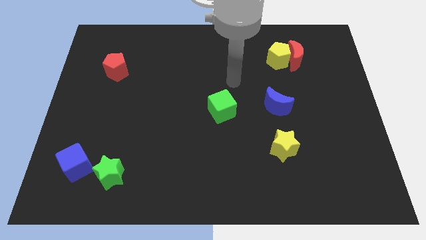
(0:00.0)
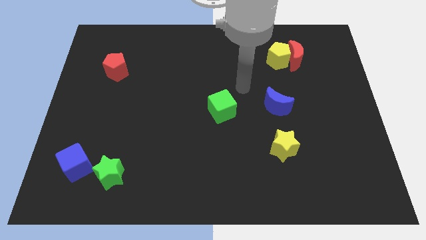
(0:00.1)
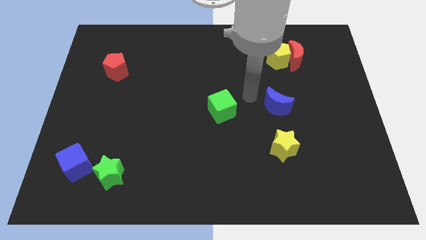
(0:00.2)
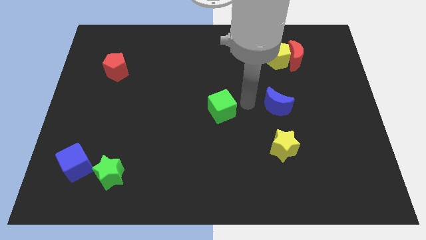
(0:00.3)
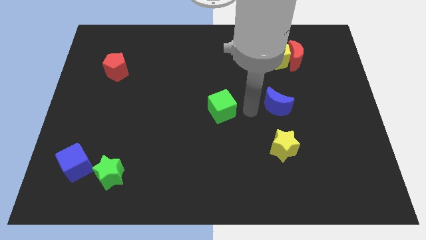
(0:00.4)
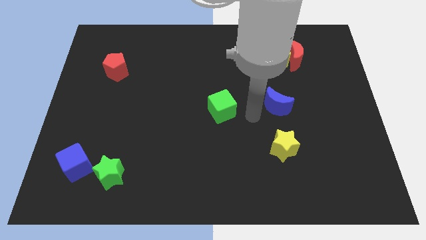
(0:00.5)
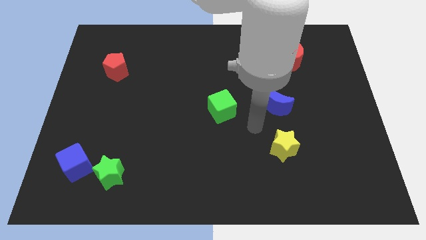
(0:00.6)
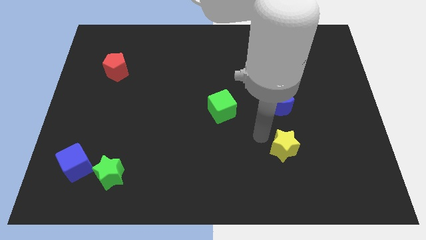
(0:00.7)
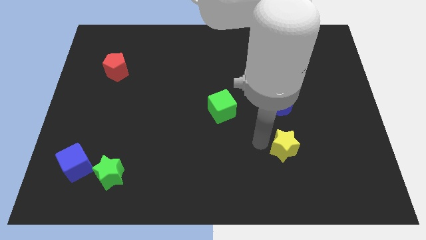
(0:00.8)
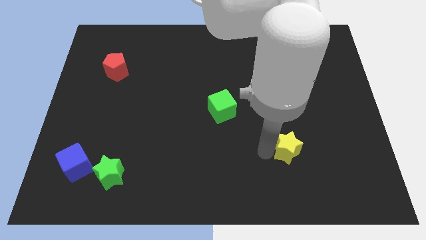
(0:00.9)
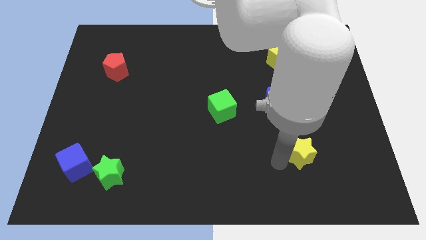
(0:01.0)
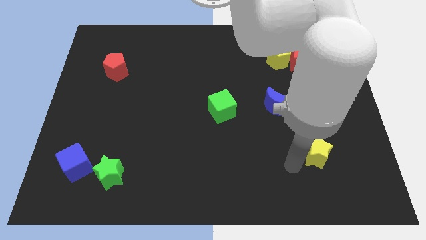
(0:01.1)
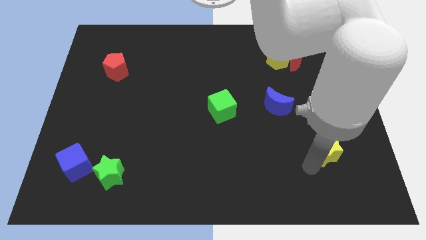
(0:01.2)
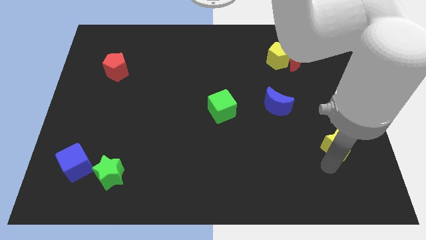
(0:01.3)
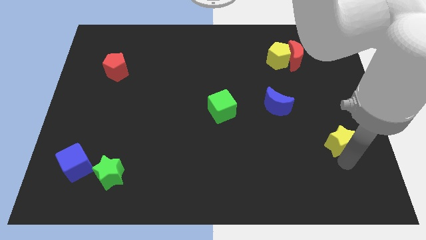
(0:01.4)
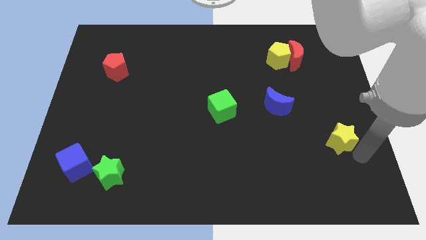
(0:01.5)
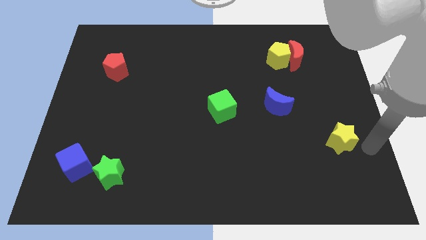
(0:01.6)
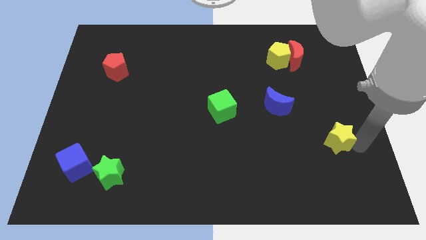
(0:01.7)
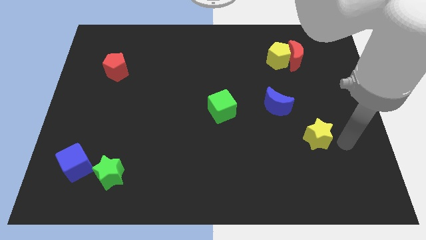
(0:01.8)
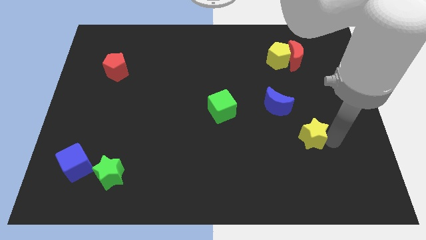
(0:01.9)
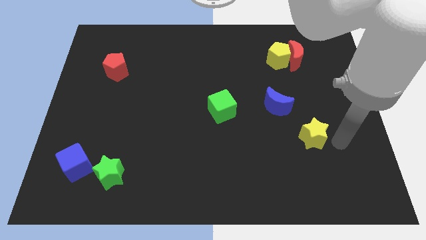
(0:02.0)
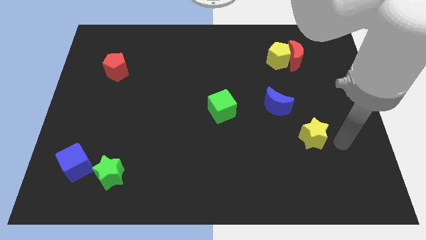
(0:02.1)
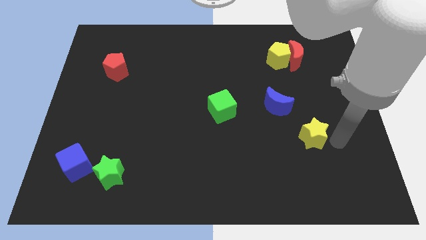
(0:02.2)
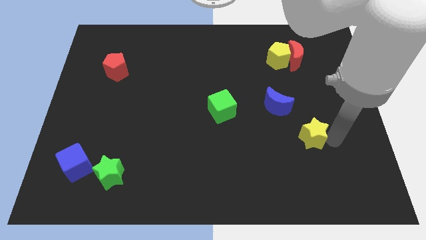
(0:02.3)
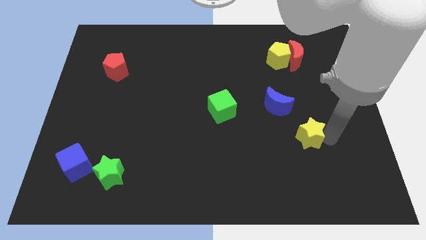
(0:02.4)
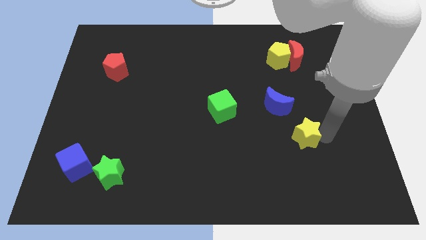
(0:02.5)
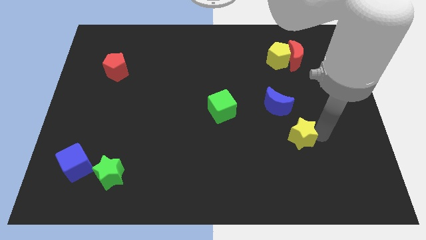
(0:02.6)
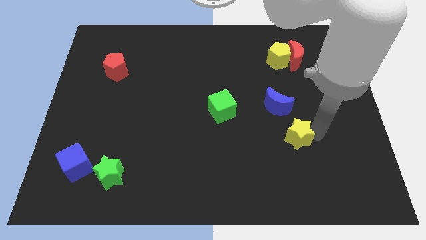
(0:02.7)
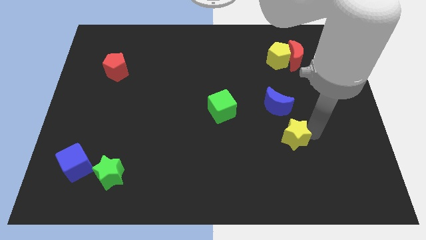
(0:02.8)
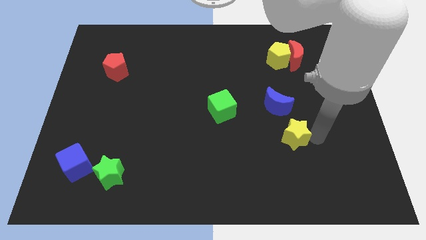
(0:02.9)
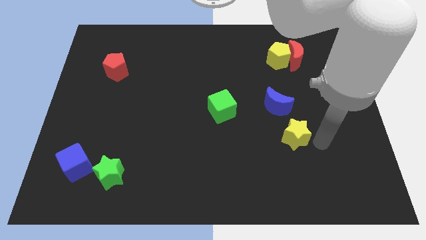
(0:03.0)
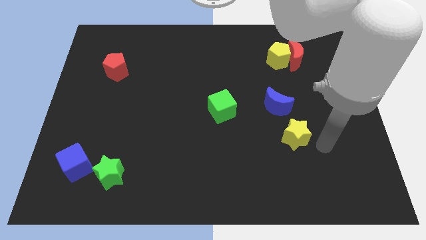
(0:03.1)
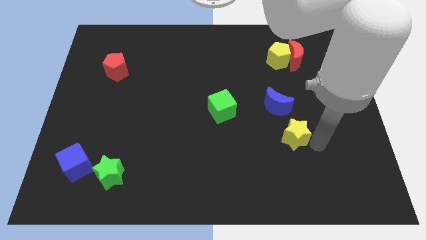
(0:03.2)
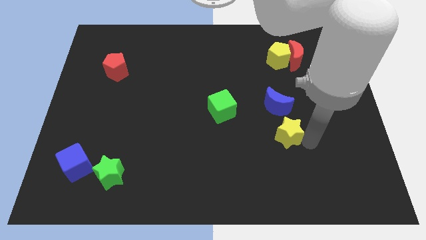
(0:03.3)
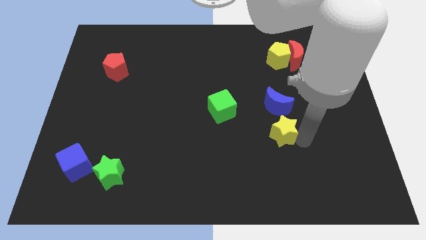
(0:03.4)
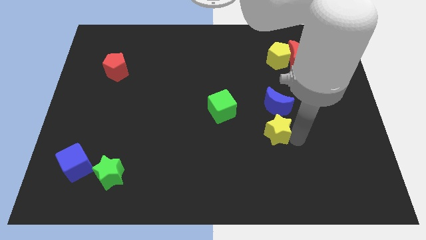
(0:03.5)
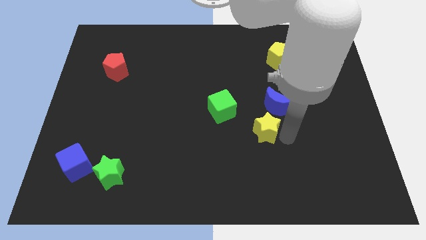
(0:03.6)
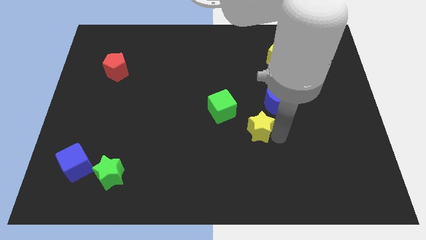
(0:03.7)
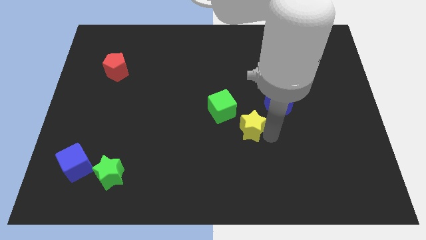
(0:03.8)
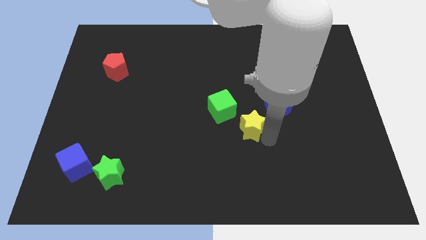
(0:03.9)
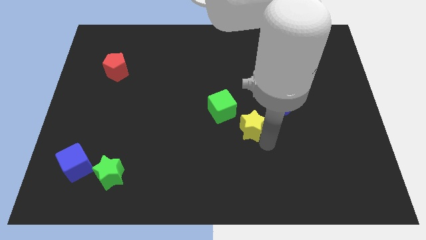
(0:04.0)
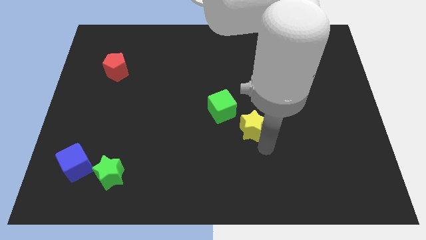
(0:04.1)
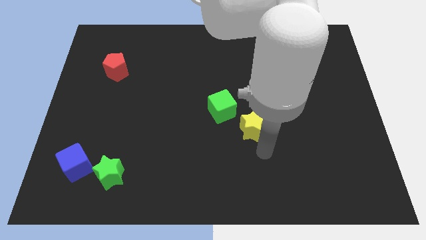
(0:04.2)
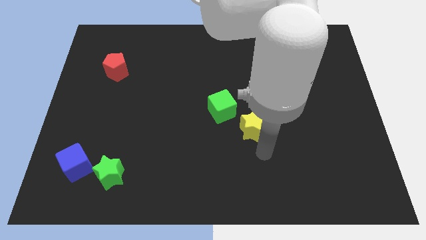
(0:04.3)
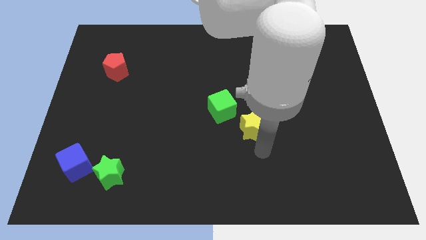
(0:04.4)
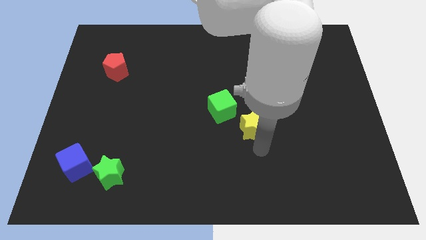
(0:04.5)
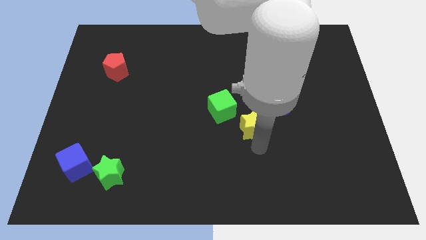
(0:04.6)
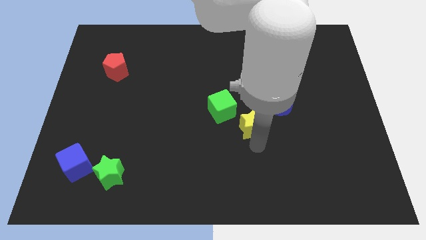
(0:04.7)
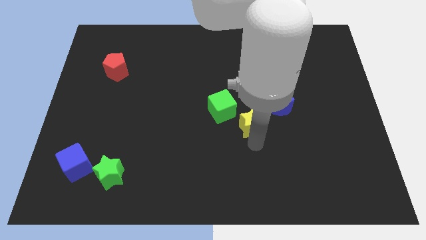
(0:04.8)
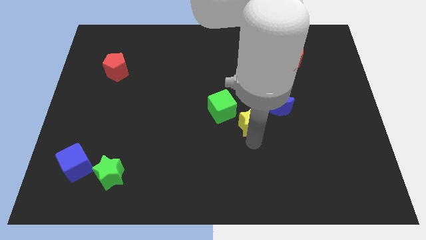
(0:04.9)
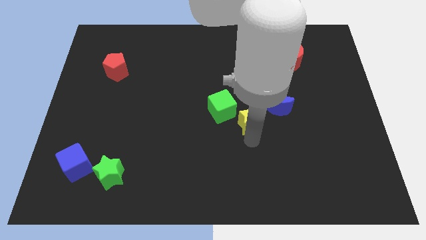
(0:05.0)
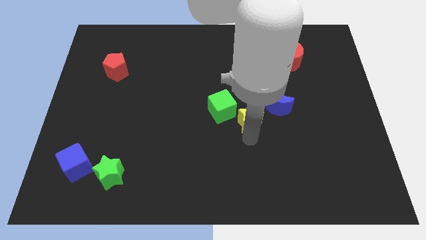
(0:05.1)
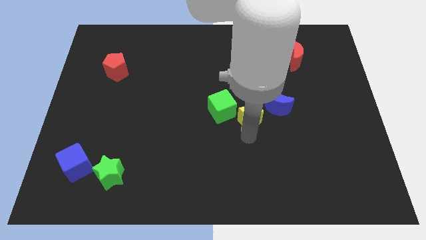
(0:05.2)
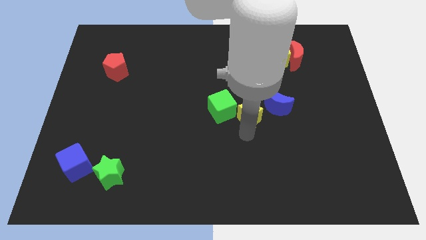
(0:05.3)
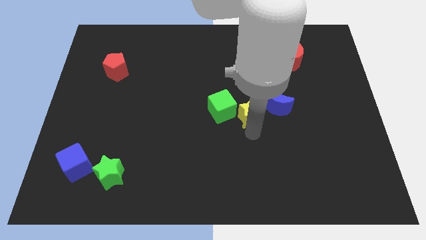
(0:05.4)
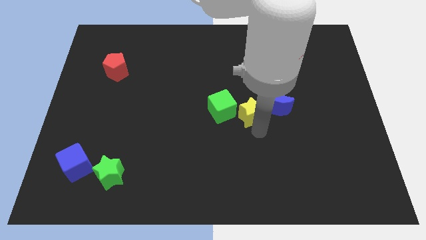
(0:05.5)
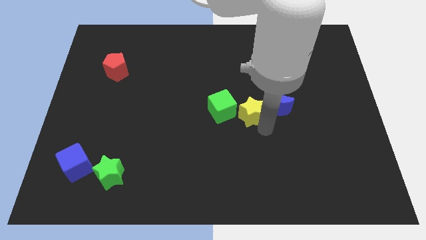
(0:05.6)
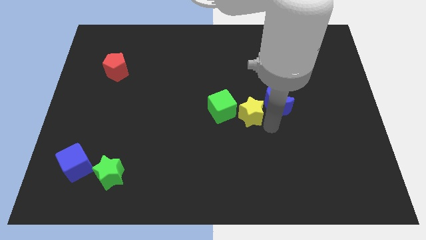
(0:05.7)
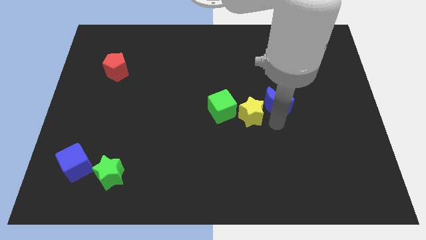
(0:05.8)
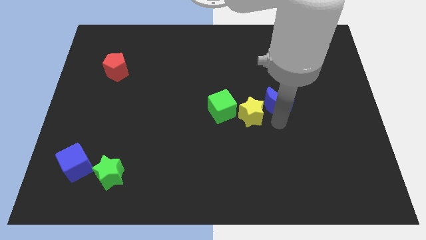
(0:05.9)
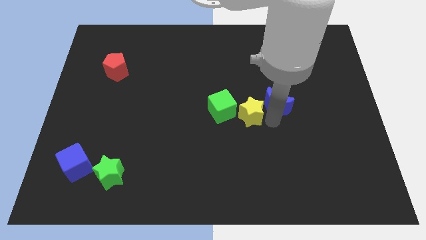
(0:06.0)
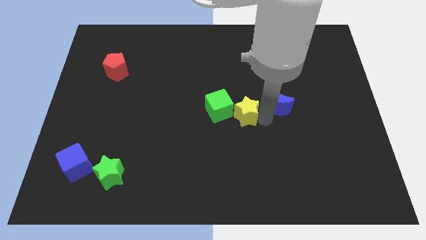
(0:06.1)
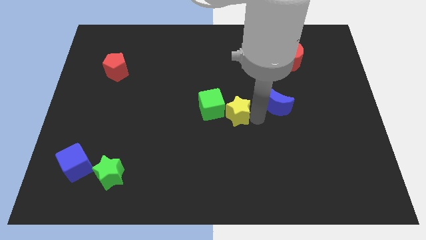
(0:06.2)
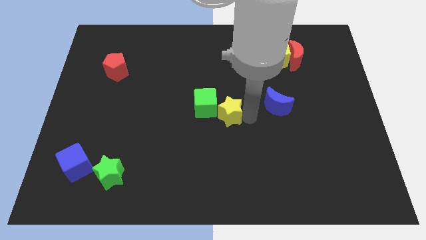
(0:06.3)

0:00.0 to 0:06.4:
put the yellow star close to the green cube

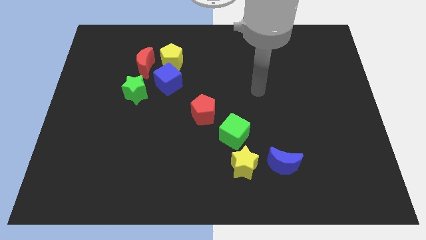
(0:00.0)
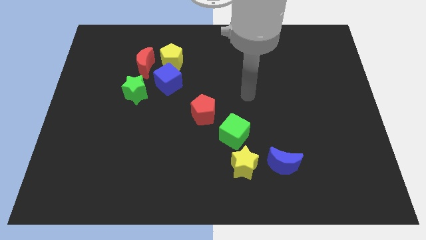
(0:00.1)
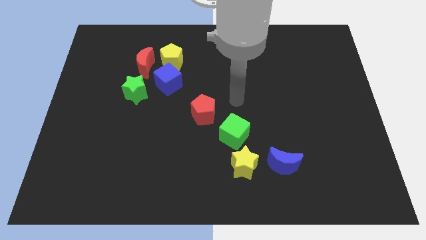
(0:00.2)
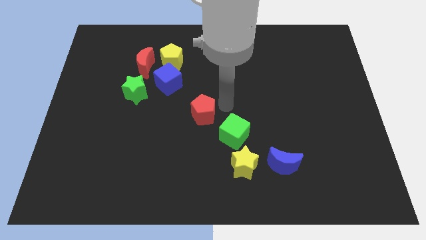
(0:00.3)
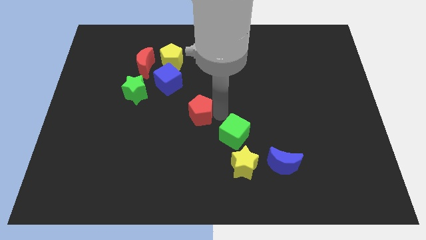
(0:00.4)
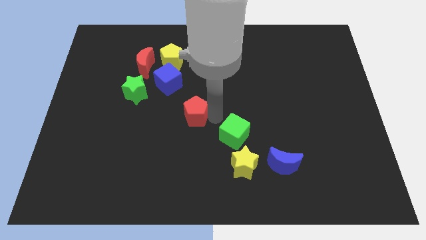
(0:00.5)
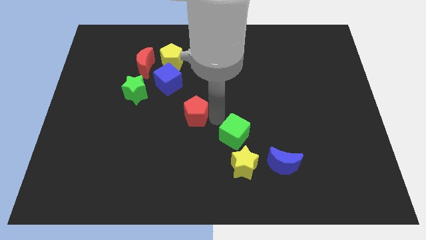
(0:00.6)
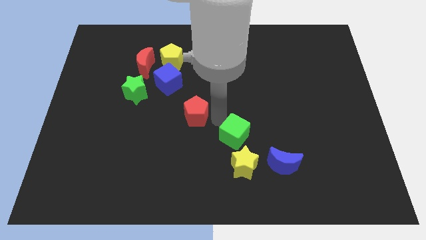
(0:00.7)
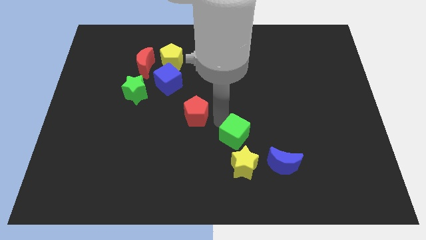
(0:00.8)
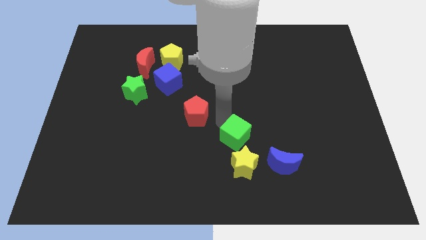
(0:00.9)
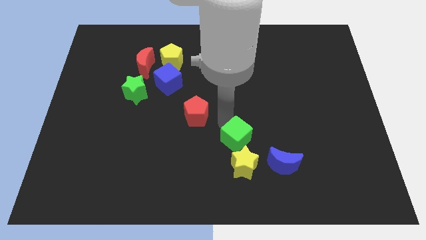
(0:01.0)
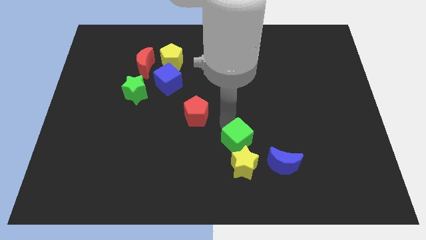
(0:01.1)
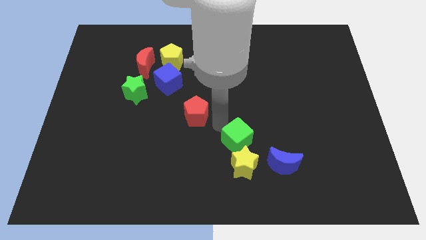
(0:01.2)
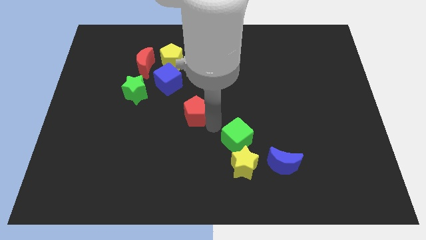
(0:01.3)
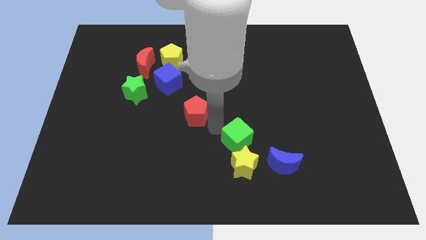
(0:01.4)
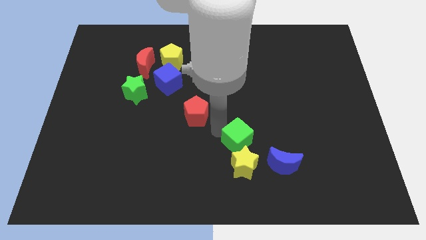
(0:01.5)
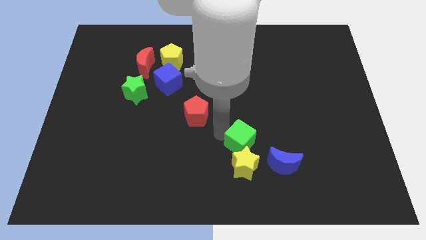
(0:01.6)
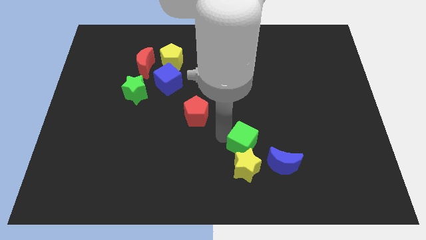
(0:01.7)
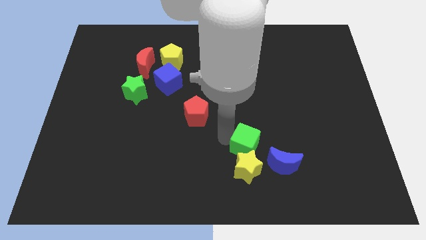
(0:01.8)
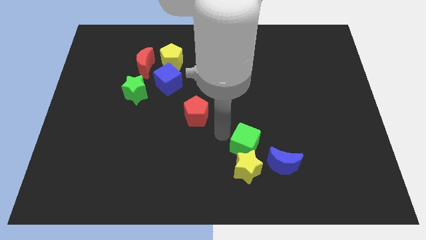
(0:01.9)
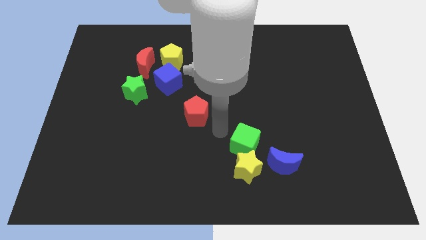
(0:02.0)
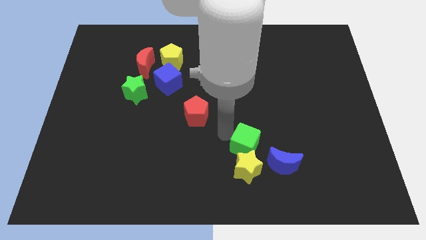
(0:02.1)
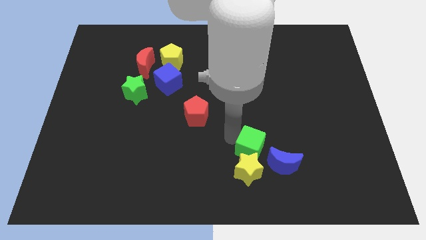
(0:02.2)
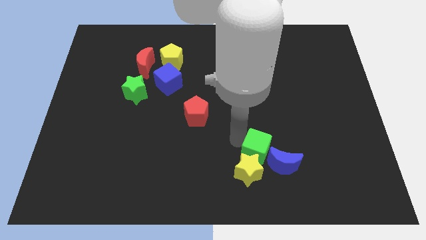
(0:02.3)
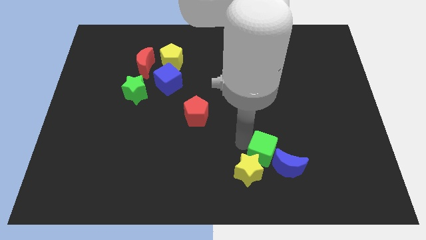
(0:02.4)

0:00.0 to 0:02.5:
move the green cube to the blue moon
